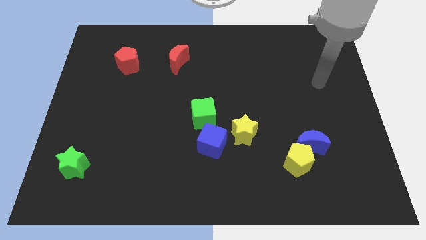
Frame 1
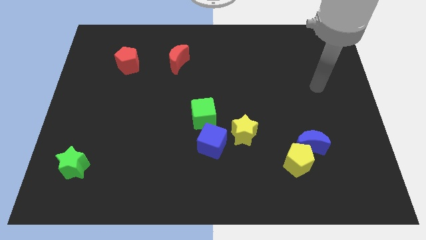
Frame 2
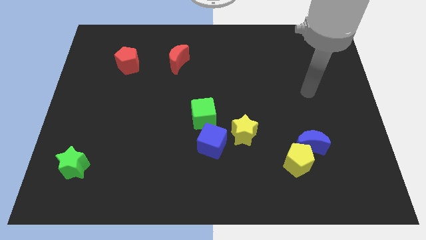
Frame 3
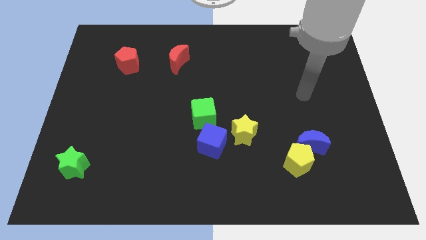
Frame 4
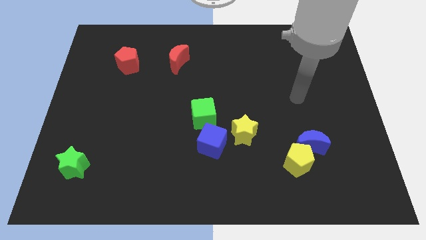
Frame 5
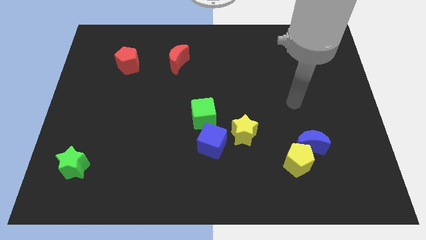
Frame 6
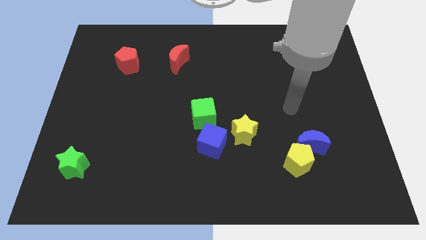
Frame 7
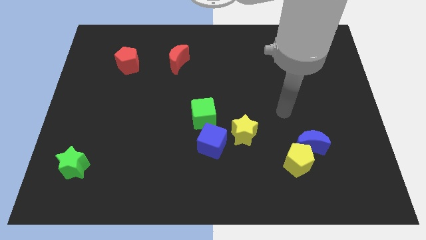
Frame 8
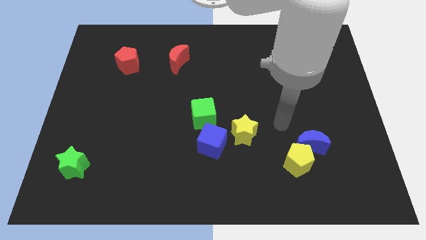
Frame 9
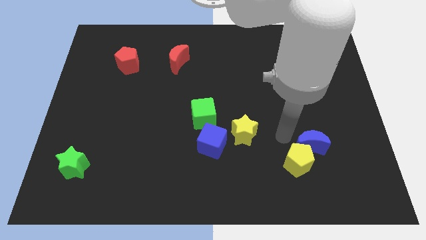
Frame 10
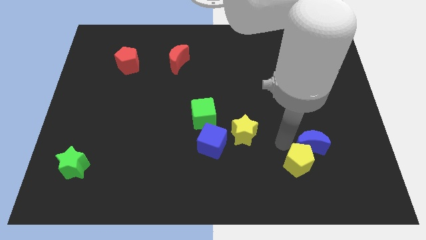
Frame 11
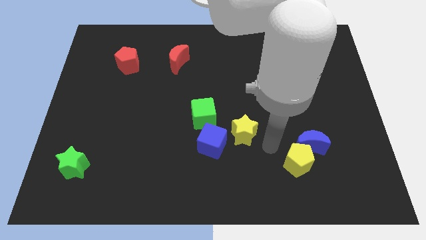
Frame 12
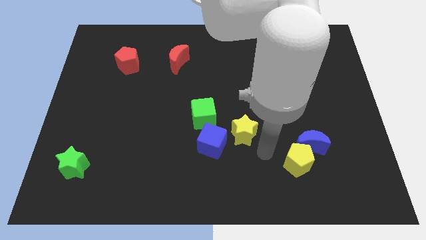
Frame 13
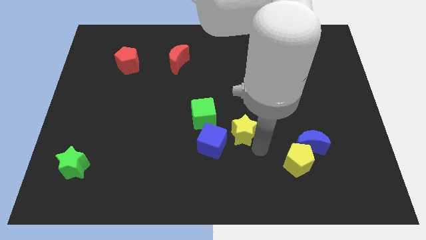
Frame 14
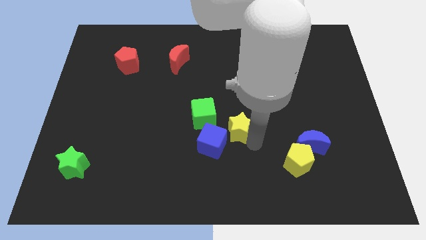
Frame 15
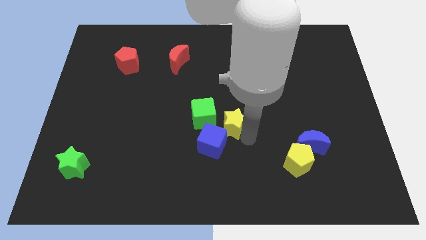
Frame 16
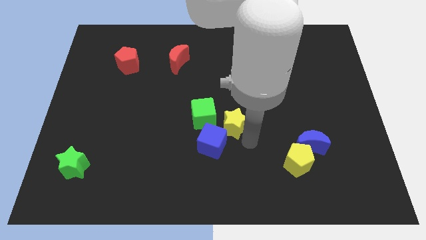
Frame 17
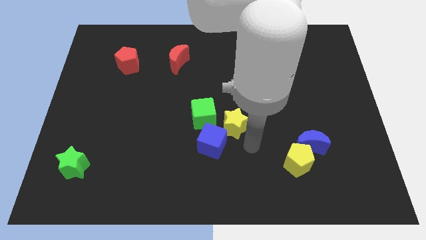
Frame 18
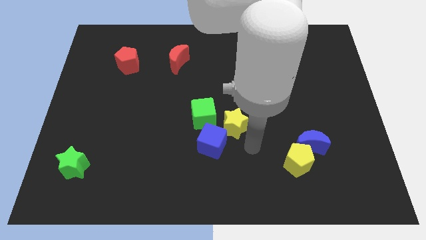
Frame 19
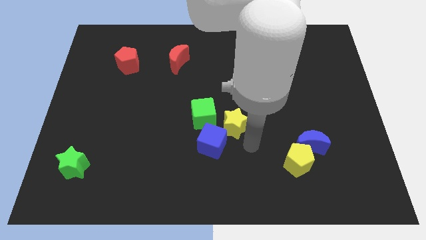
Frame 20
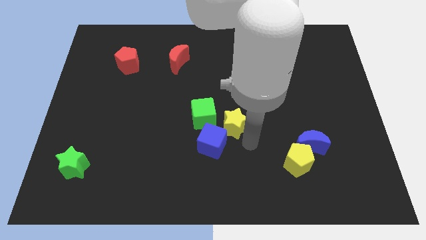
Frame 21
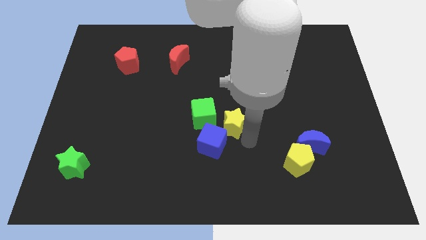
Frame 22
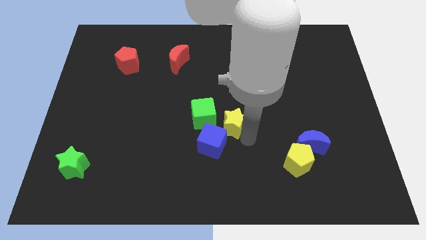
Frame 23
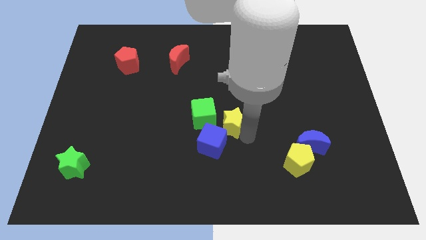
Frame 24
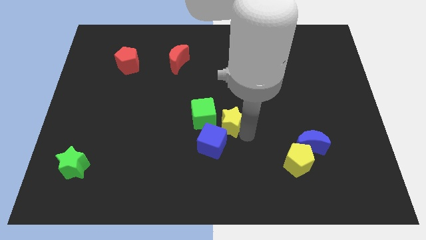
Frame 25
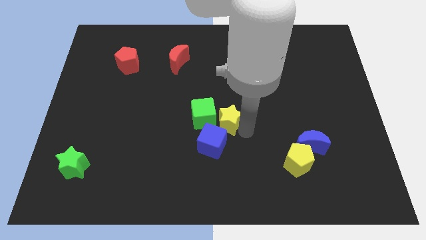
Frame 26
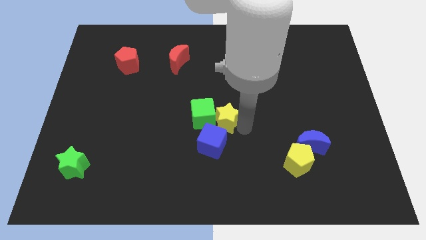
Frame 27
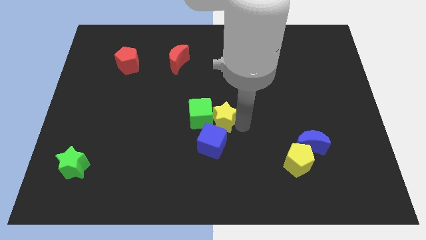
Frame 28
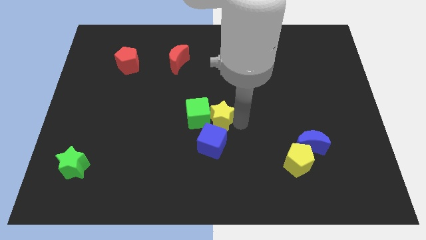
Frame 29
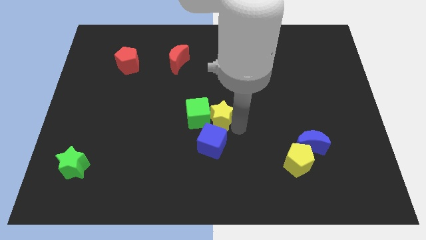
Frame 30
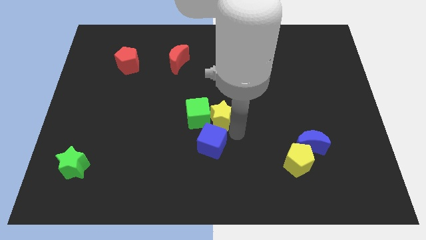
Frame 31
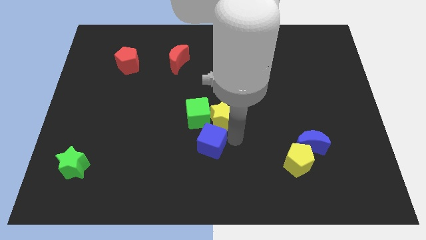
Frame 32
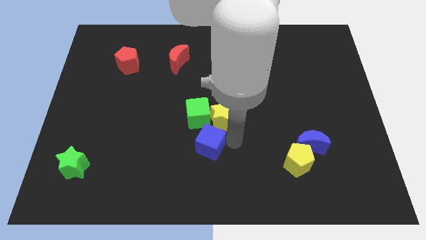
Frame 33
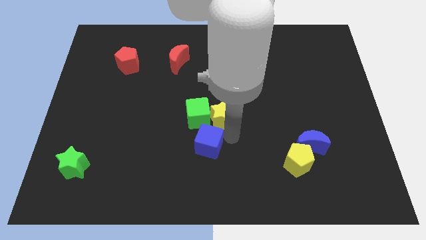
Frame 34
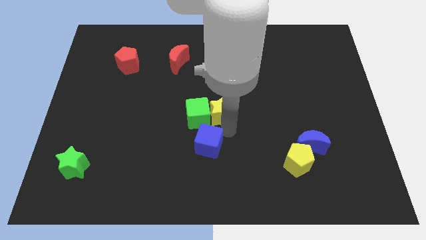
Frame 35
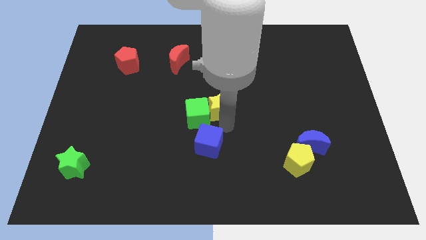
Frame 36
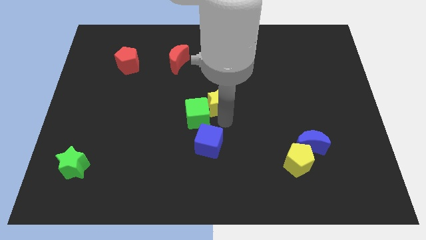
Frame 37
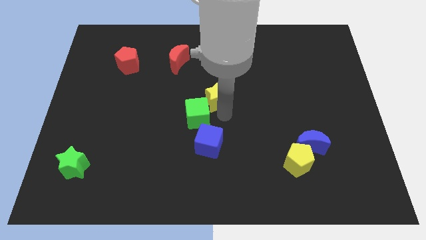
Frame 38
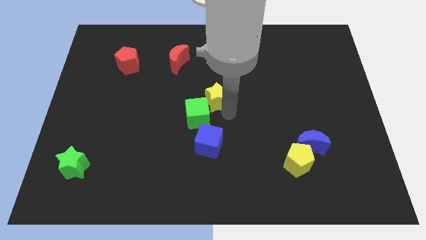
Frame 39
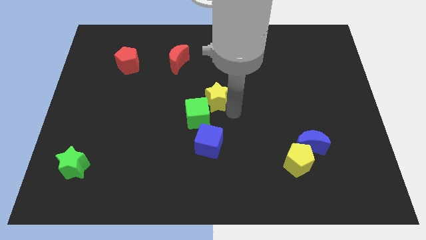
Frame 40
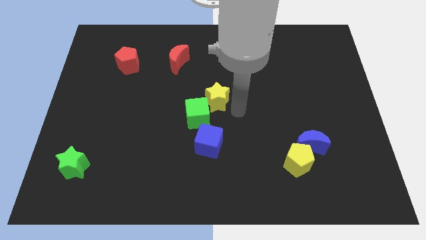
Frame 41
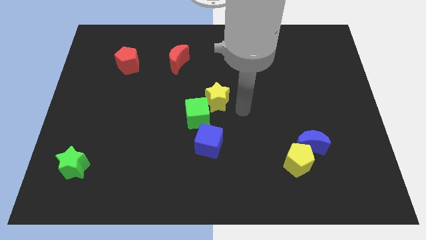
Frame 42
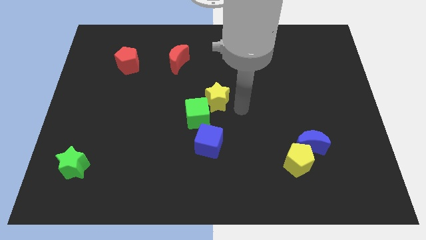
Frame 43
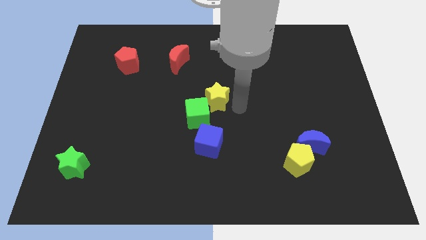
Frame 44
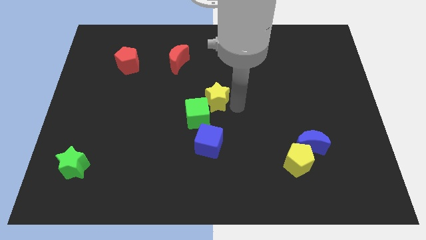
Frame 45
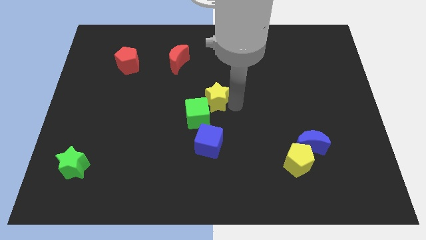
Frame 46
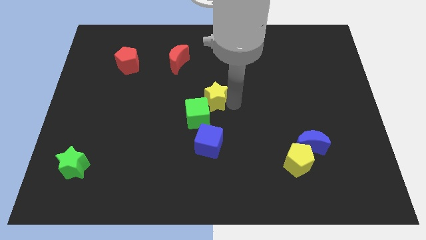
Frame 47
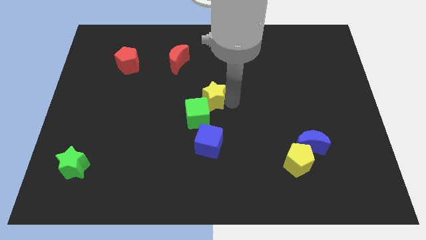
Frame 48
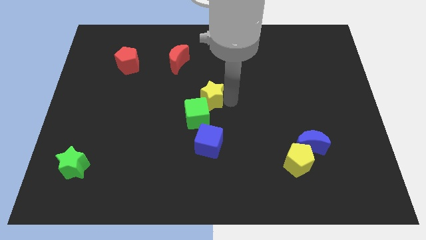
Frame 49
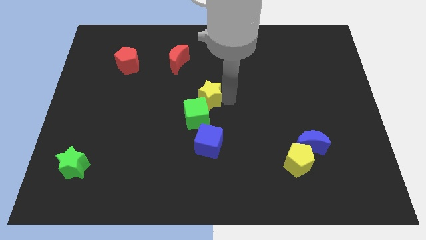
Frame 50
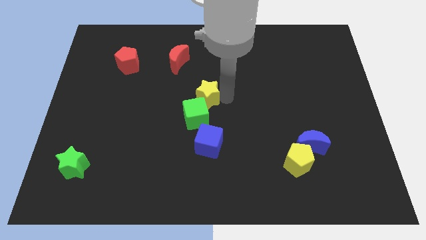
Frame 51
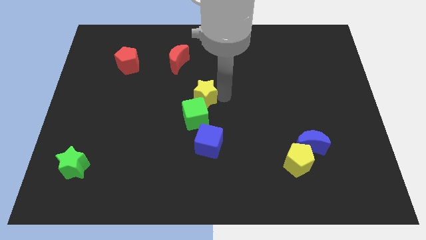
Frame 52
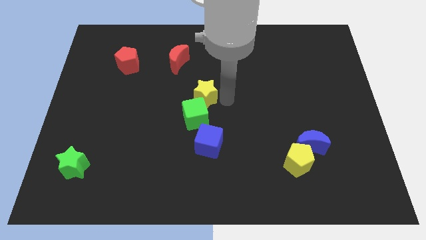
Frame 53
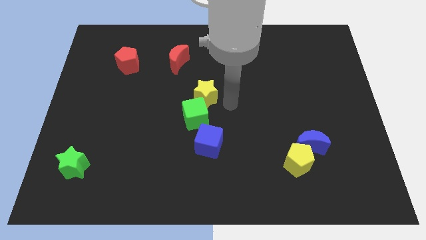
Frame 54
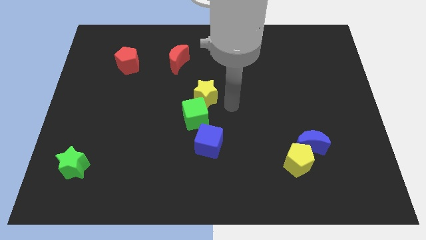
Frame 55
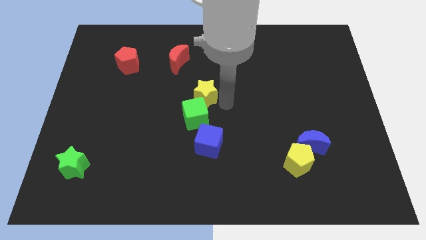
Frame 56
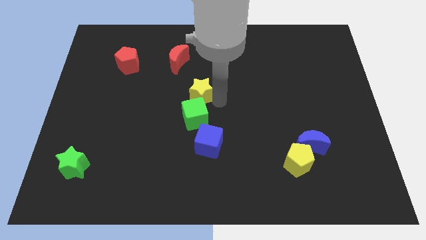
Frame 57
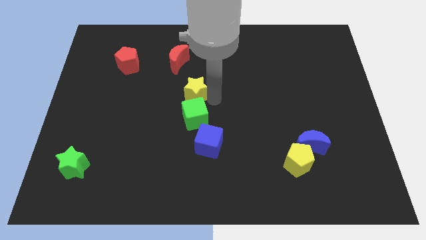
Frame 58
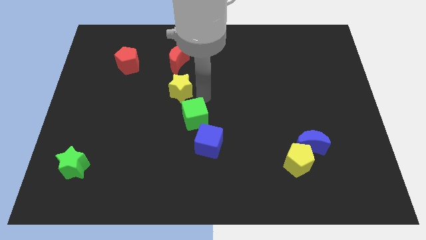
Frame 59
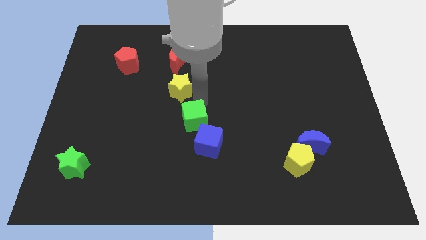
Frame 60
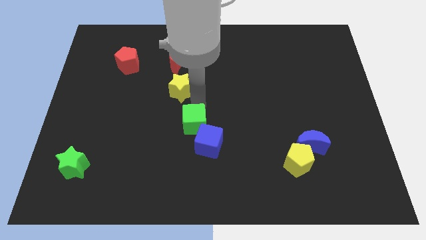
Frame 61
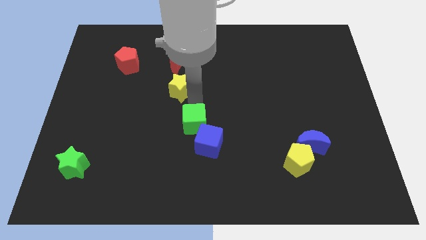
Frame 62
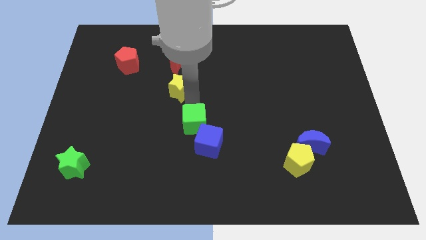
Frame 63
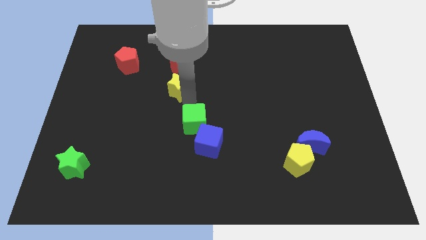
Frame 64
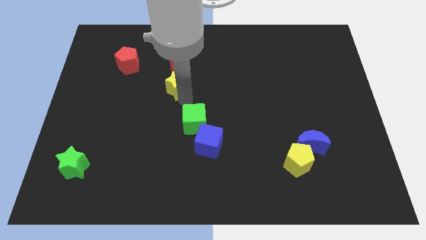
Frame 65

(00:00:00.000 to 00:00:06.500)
move the yellow star up and left diagonally

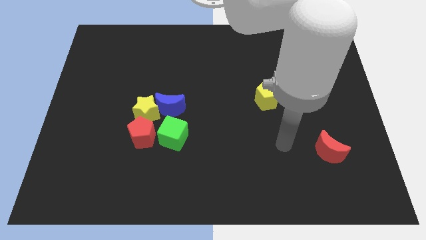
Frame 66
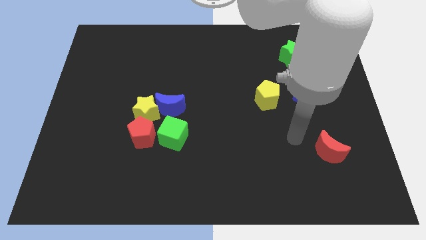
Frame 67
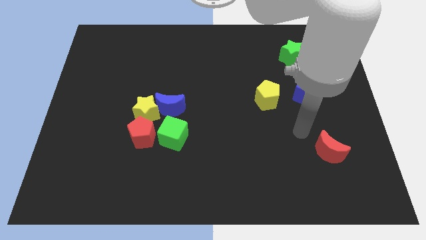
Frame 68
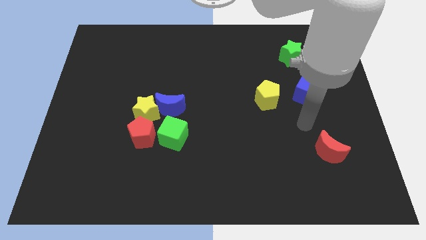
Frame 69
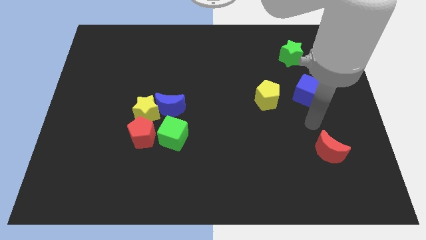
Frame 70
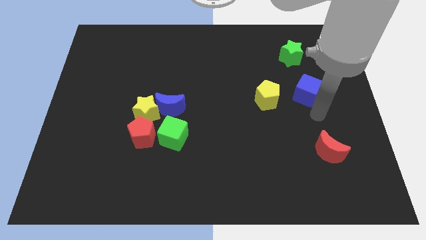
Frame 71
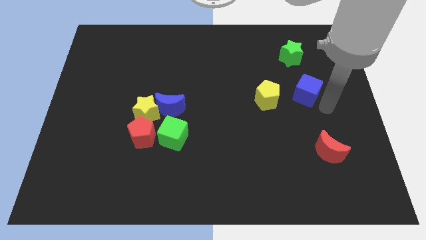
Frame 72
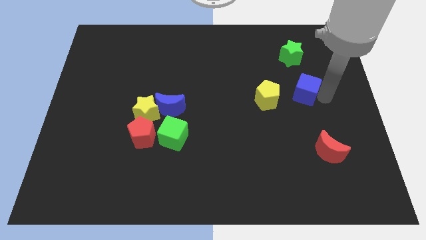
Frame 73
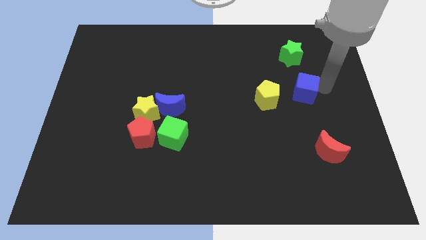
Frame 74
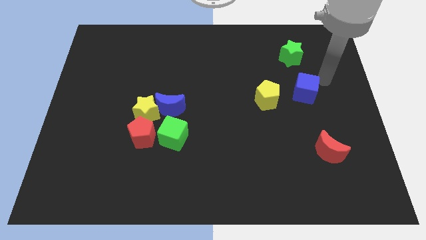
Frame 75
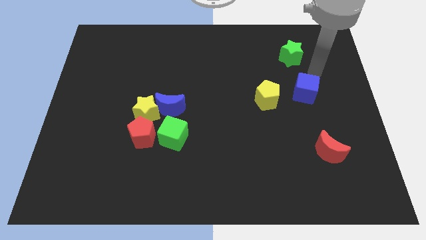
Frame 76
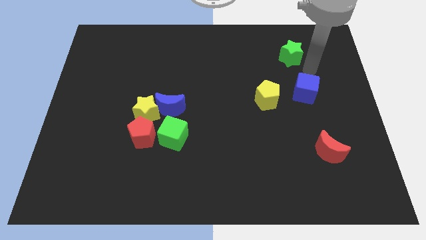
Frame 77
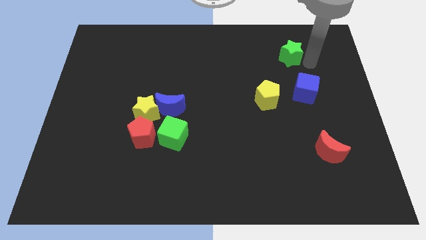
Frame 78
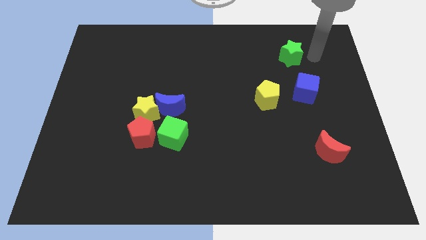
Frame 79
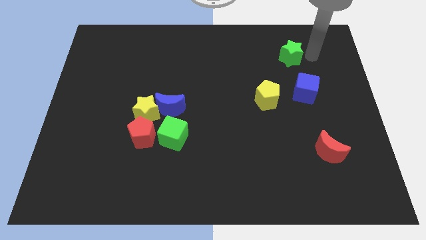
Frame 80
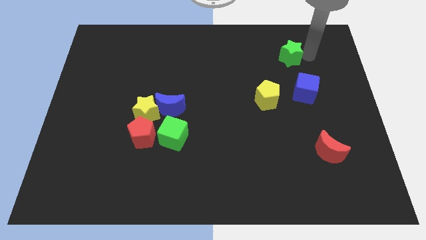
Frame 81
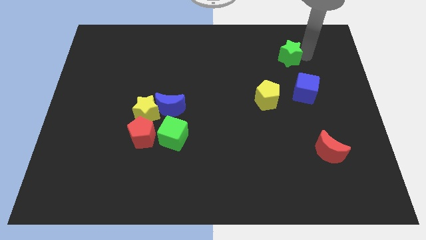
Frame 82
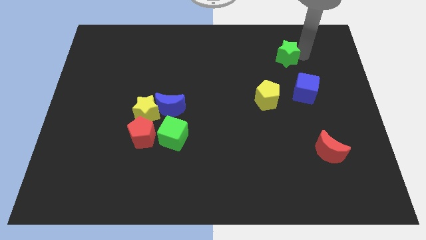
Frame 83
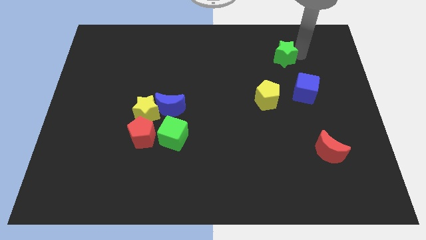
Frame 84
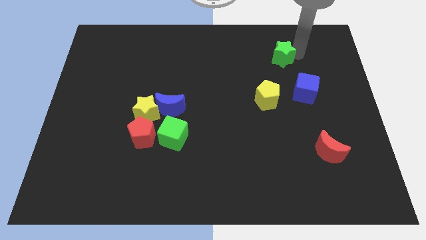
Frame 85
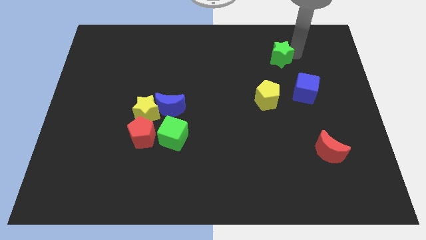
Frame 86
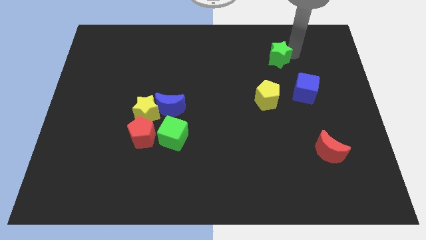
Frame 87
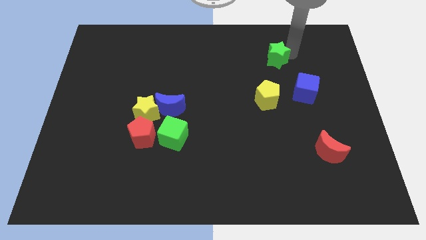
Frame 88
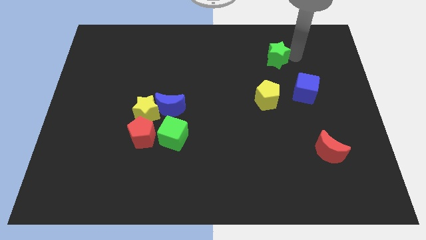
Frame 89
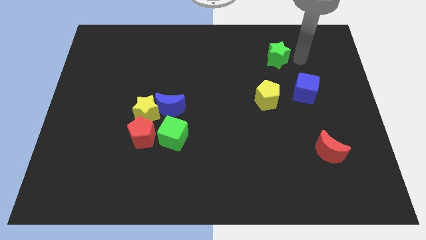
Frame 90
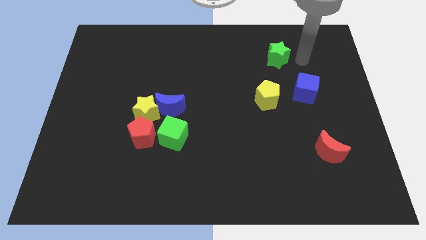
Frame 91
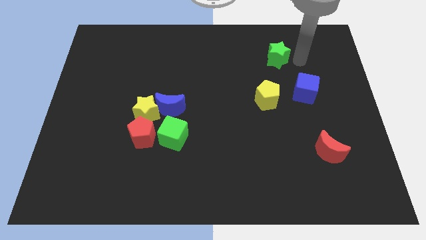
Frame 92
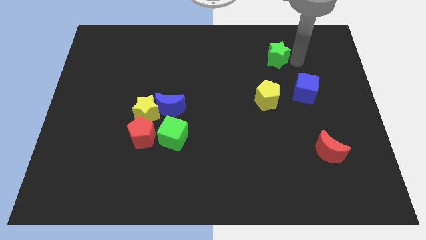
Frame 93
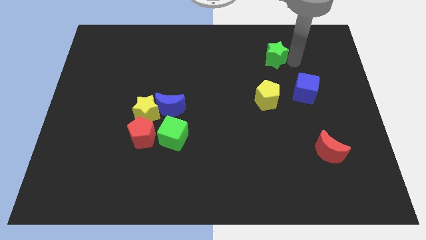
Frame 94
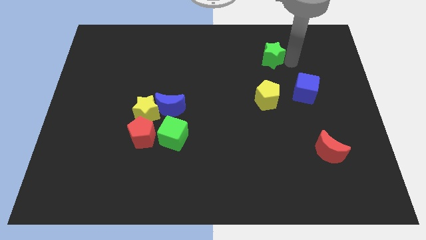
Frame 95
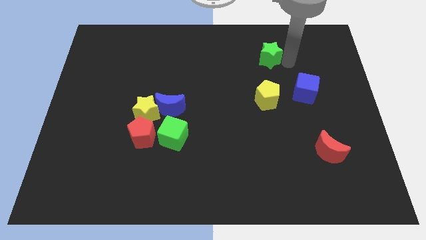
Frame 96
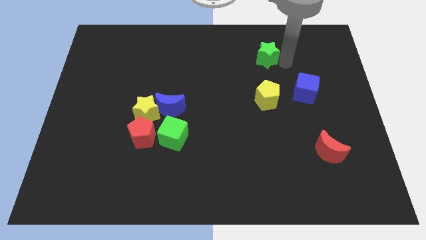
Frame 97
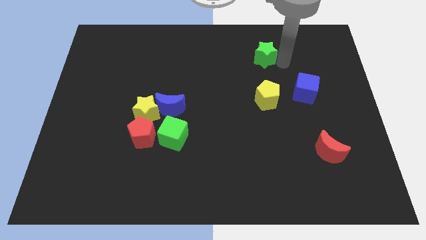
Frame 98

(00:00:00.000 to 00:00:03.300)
slightly slide the green star left
